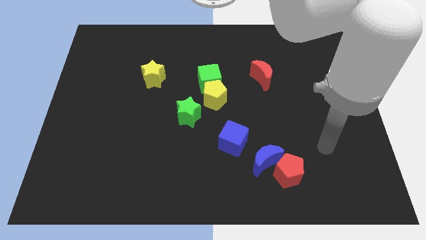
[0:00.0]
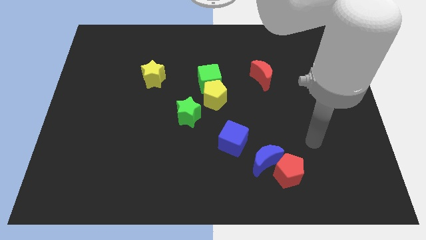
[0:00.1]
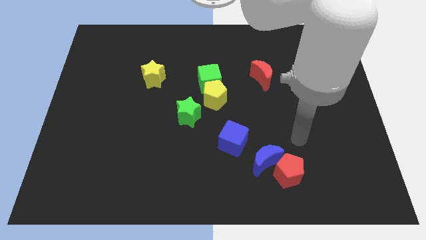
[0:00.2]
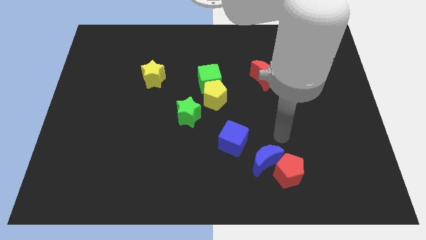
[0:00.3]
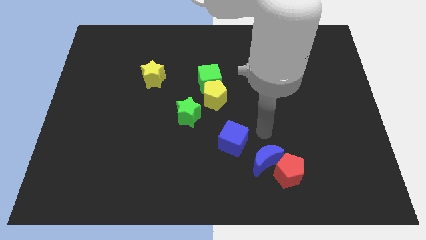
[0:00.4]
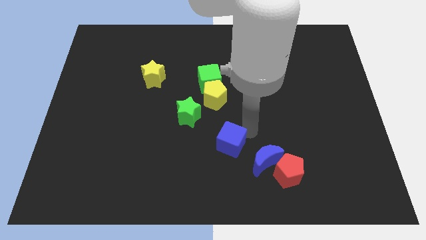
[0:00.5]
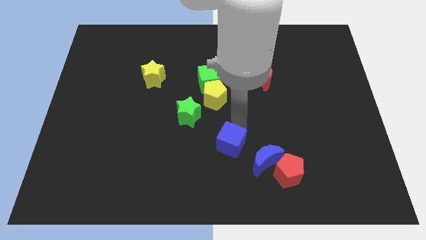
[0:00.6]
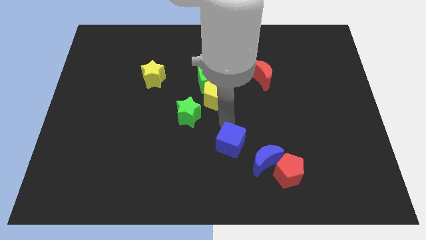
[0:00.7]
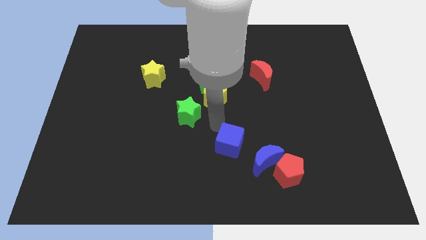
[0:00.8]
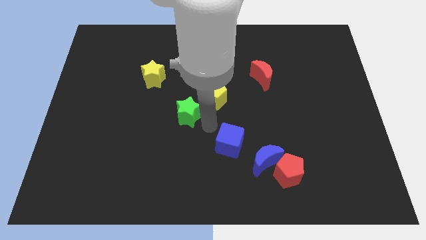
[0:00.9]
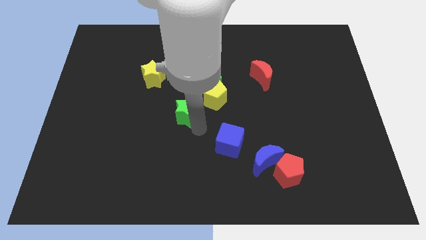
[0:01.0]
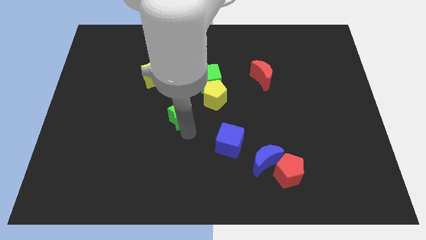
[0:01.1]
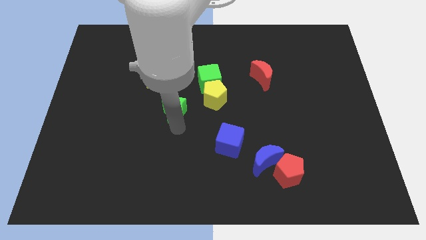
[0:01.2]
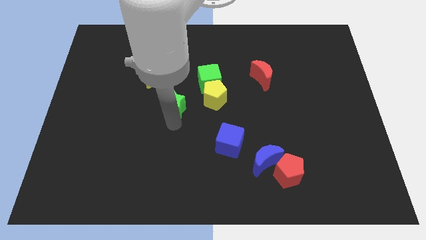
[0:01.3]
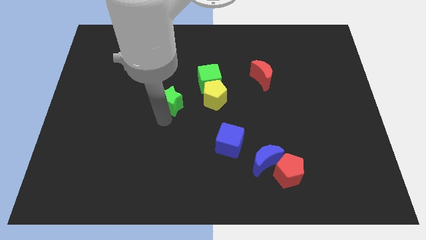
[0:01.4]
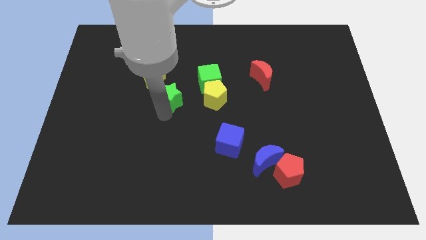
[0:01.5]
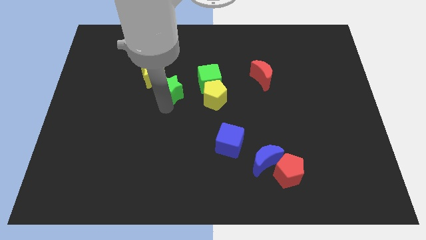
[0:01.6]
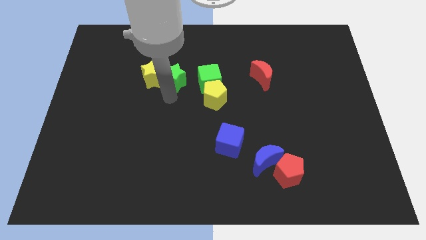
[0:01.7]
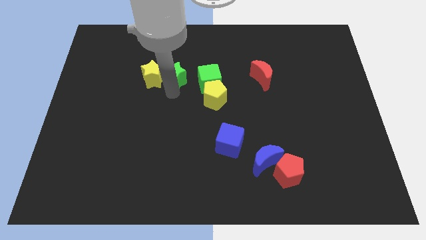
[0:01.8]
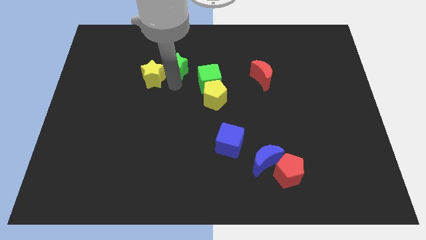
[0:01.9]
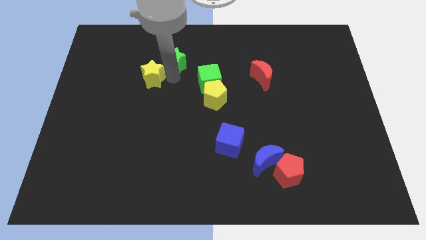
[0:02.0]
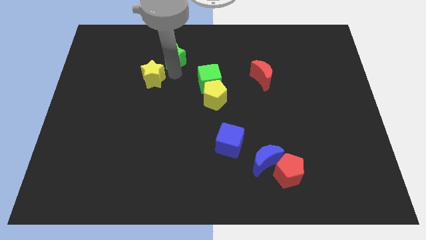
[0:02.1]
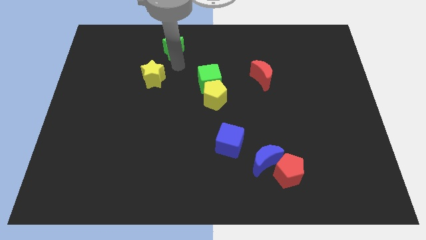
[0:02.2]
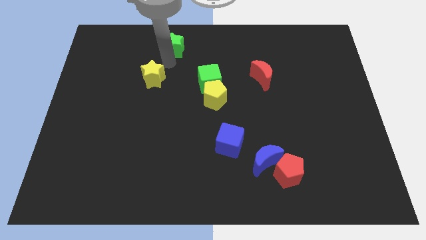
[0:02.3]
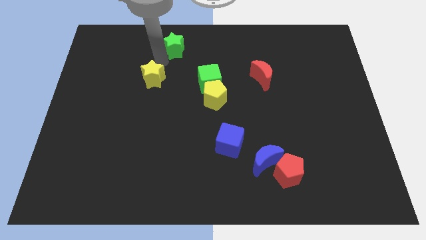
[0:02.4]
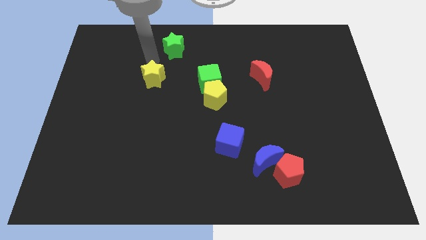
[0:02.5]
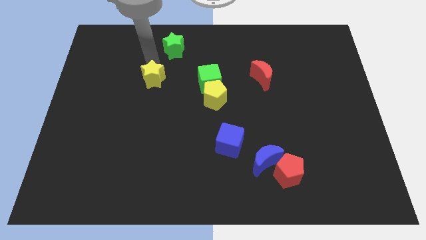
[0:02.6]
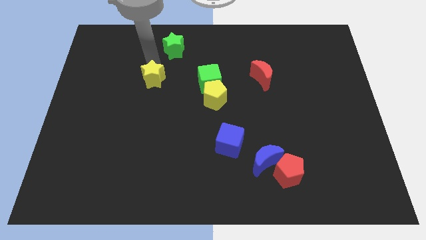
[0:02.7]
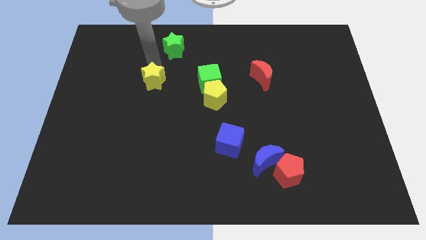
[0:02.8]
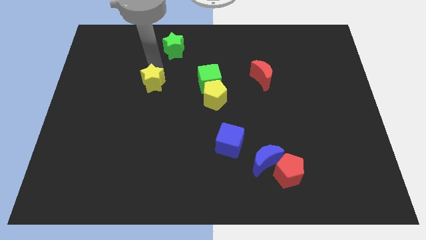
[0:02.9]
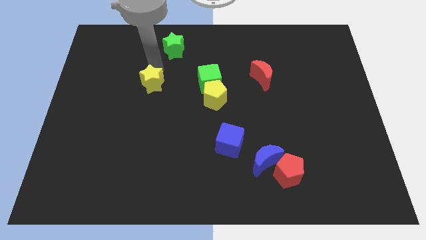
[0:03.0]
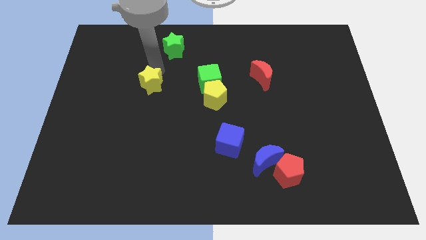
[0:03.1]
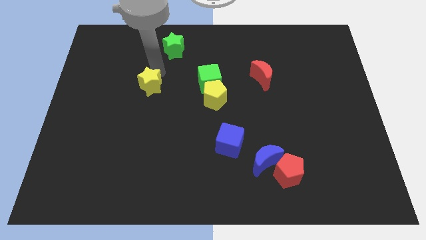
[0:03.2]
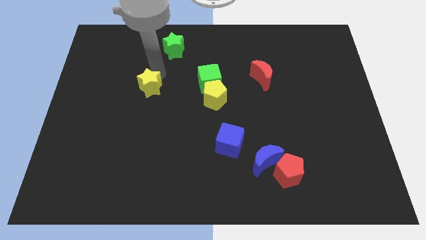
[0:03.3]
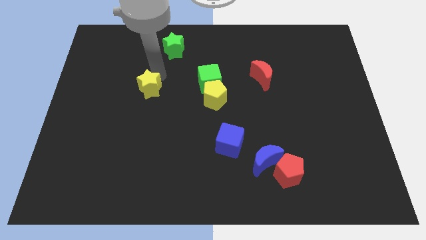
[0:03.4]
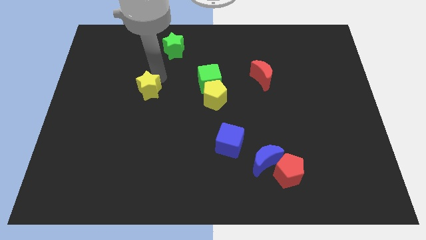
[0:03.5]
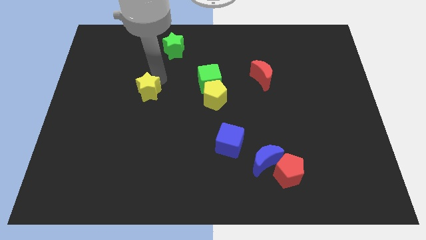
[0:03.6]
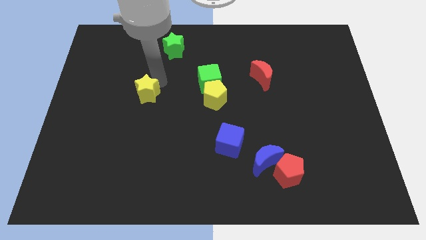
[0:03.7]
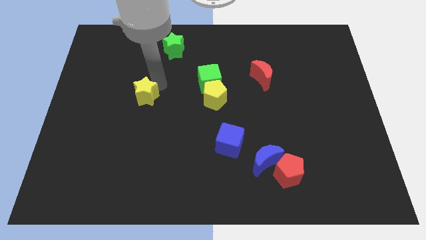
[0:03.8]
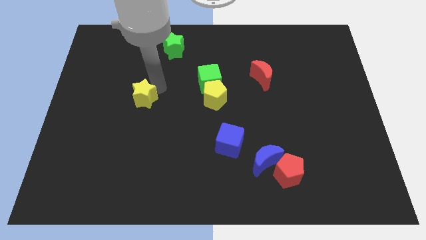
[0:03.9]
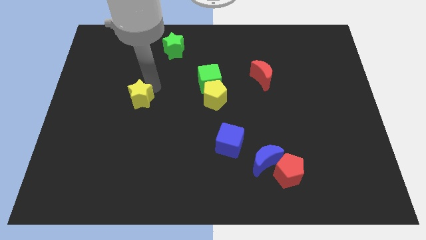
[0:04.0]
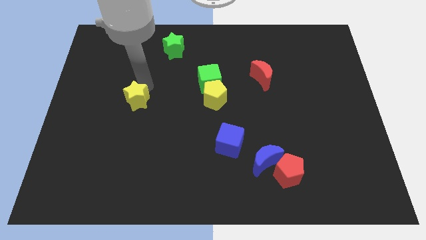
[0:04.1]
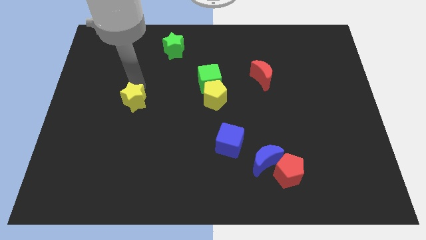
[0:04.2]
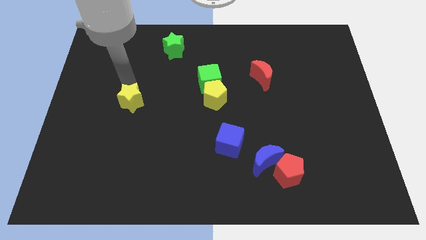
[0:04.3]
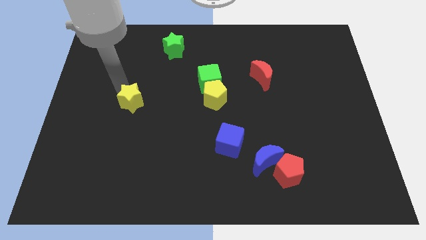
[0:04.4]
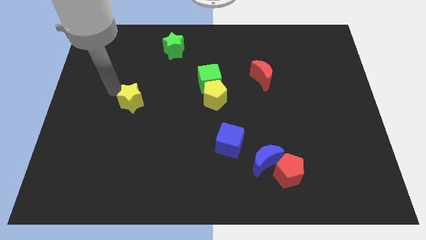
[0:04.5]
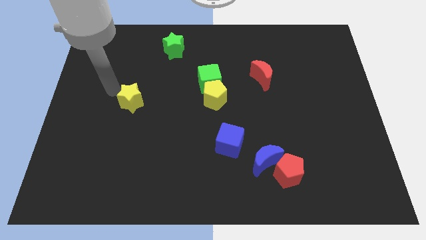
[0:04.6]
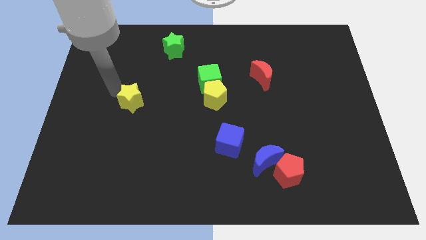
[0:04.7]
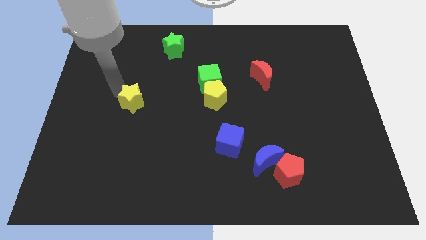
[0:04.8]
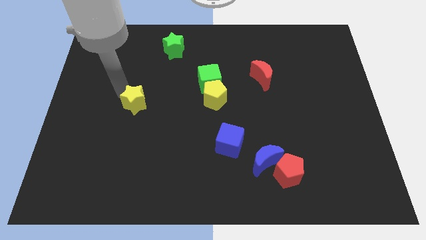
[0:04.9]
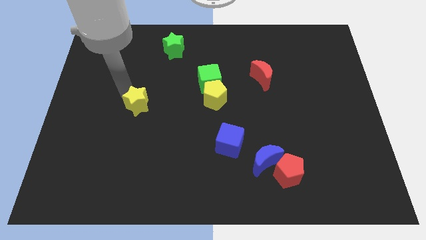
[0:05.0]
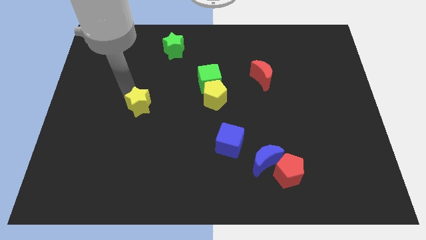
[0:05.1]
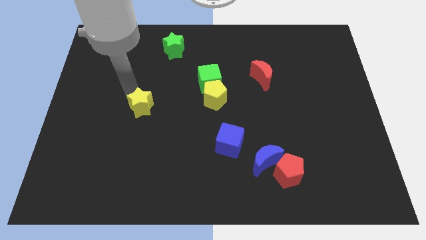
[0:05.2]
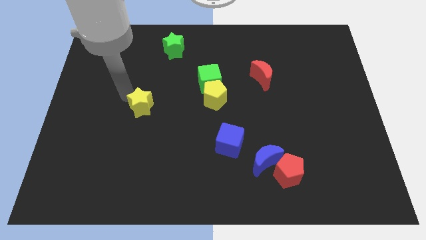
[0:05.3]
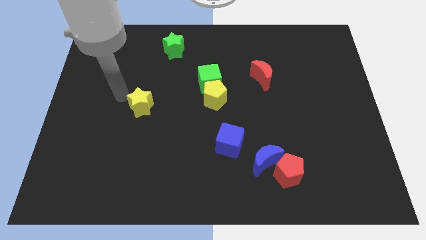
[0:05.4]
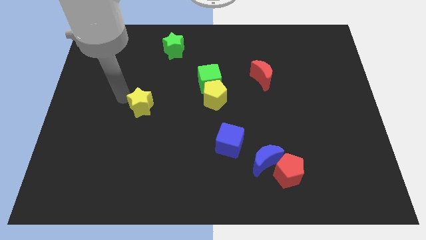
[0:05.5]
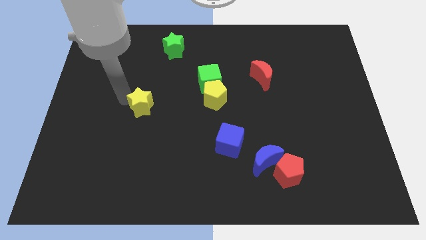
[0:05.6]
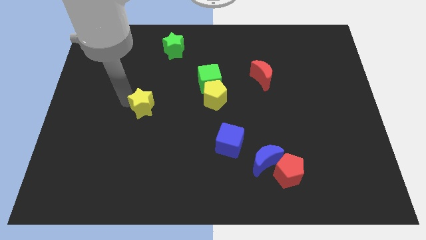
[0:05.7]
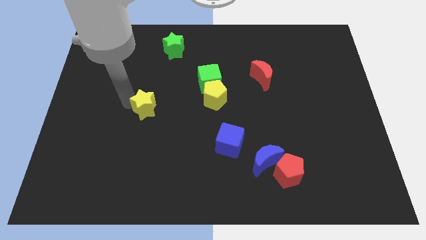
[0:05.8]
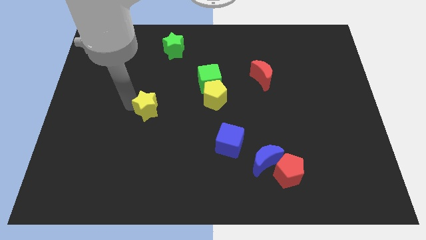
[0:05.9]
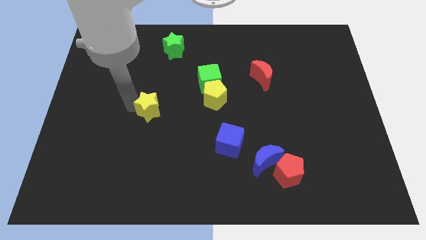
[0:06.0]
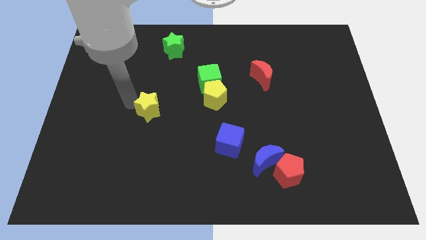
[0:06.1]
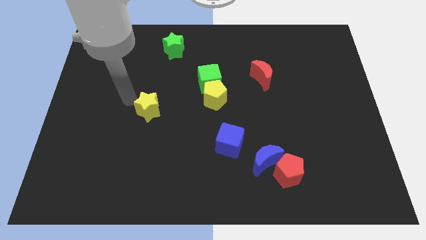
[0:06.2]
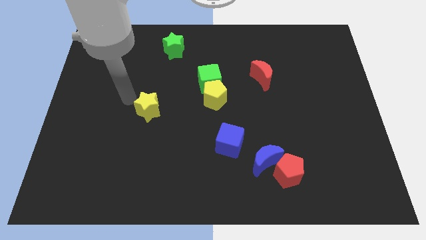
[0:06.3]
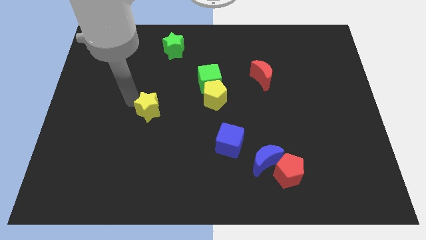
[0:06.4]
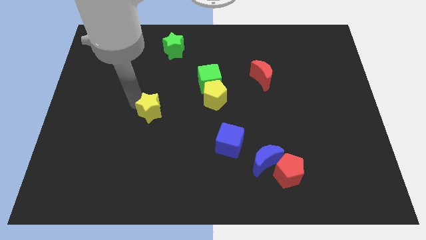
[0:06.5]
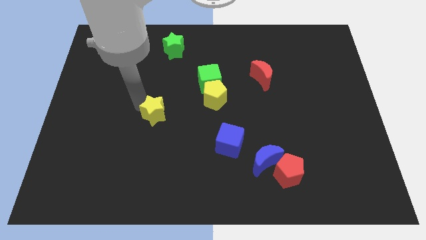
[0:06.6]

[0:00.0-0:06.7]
push the yellow star diagonally downwards and to the right a little bit

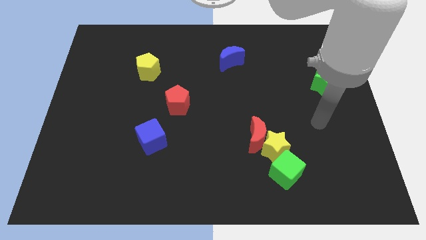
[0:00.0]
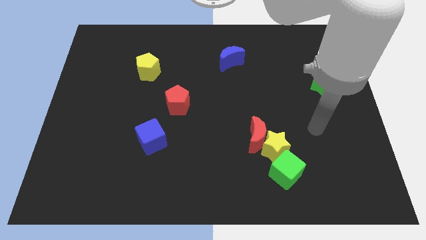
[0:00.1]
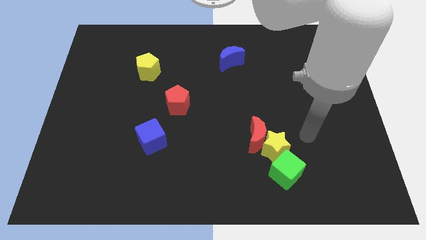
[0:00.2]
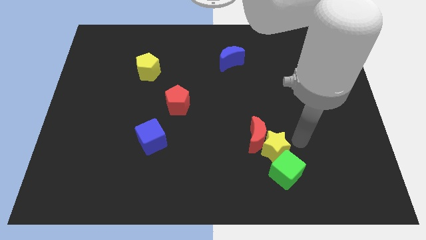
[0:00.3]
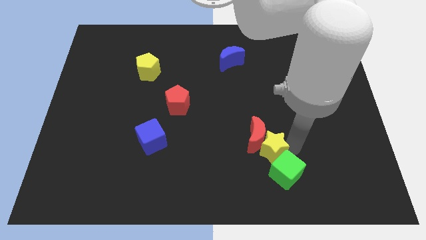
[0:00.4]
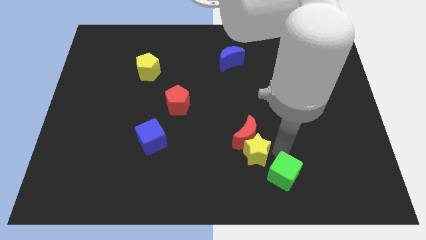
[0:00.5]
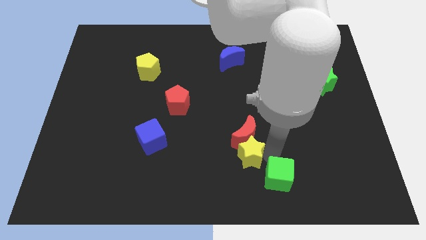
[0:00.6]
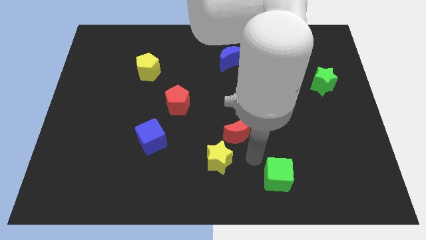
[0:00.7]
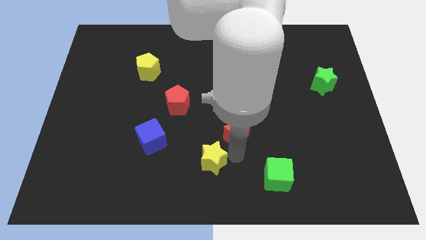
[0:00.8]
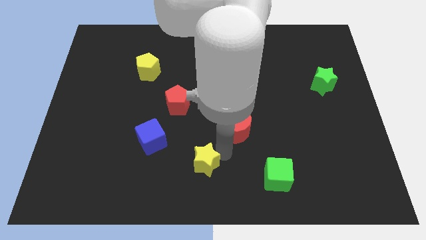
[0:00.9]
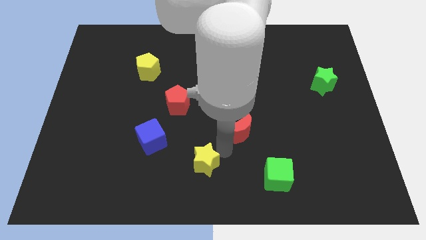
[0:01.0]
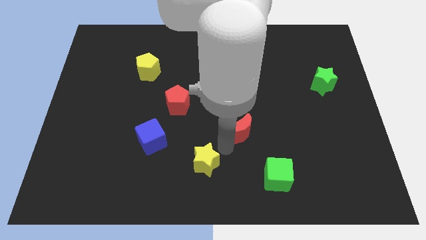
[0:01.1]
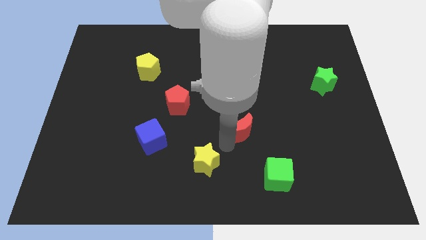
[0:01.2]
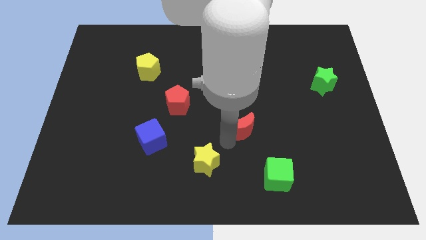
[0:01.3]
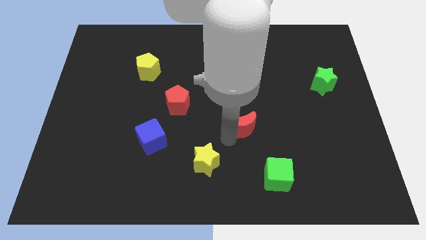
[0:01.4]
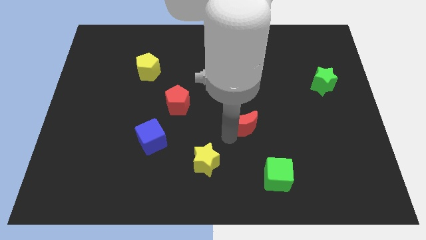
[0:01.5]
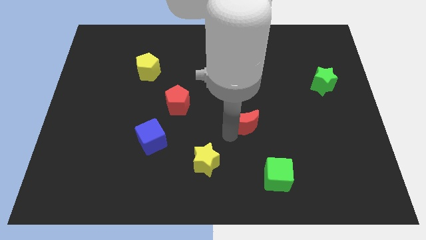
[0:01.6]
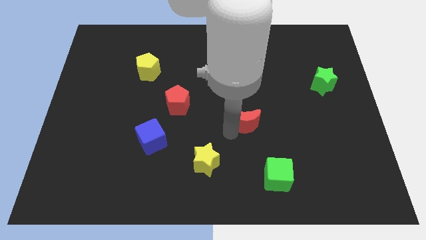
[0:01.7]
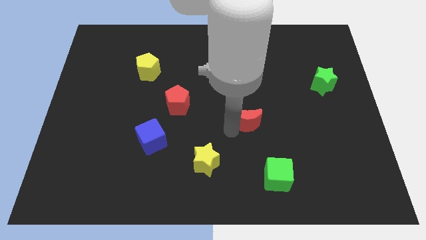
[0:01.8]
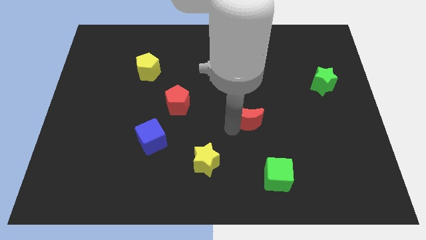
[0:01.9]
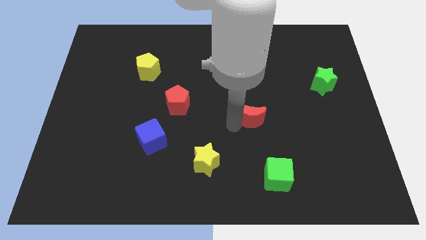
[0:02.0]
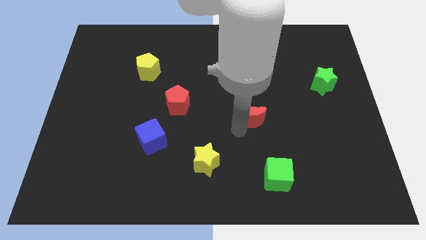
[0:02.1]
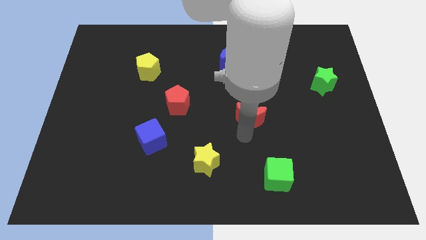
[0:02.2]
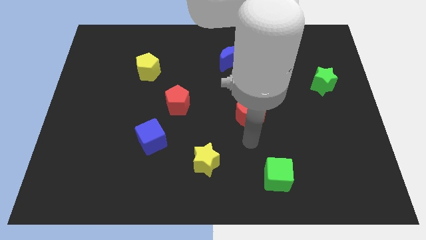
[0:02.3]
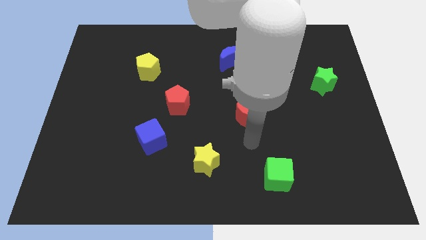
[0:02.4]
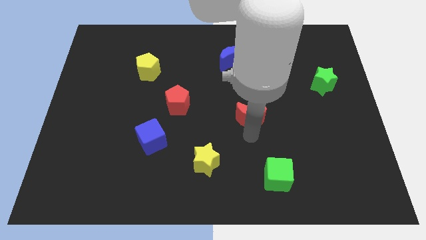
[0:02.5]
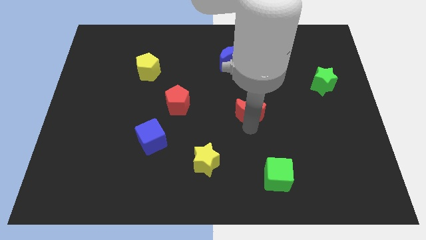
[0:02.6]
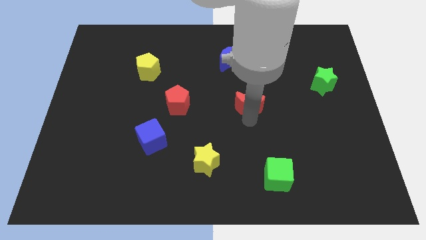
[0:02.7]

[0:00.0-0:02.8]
slightly move the red moon upwards
